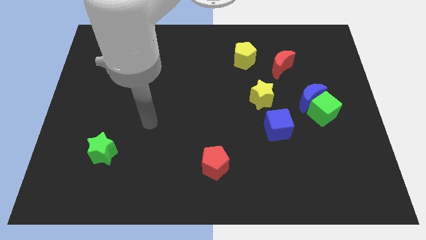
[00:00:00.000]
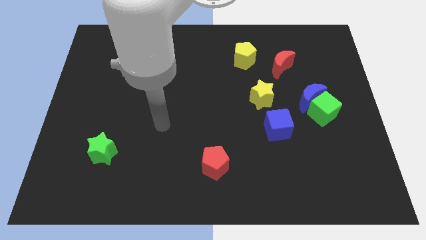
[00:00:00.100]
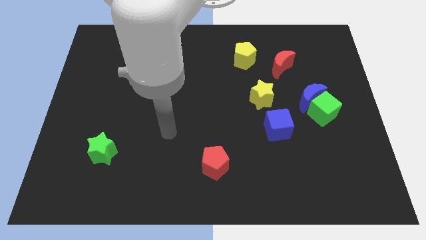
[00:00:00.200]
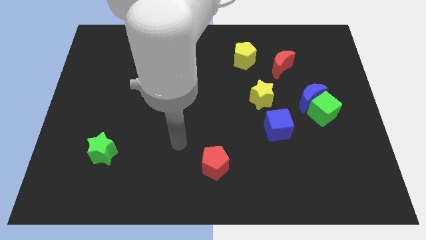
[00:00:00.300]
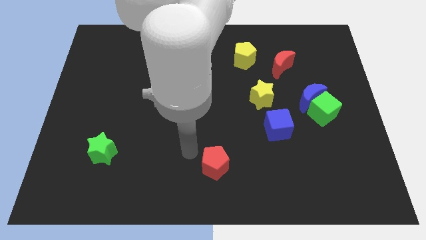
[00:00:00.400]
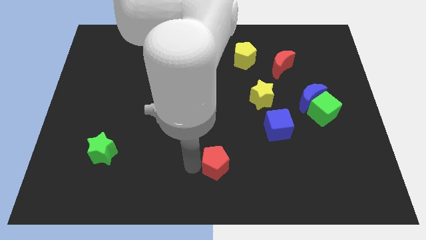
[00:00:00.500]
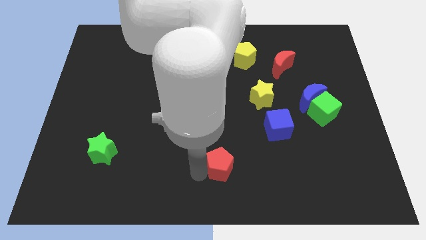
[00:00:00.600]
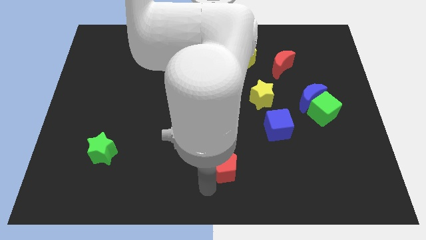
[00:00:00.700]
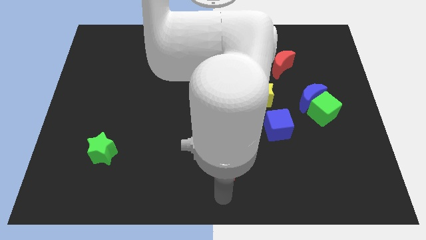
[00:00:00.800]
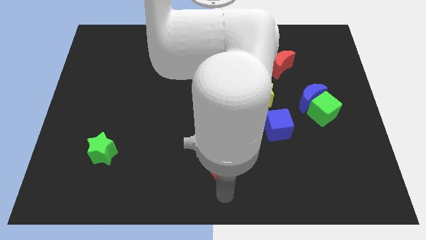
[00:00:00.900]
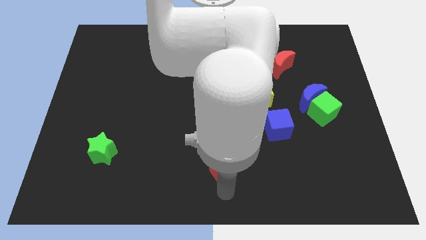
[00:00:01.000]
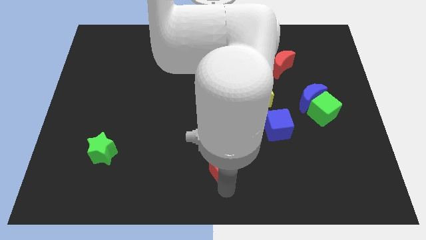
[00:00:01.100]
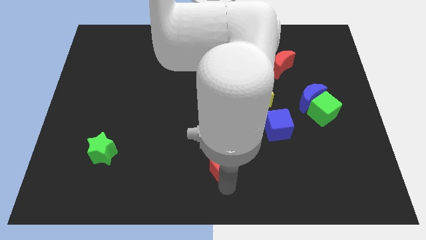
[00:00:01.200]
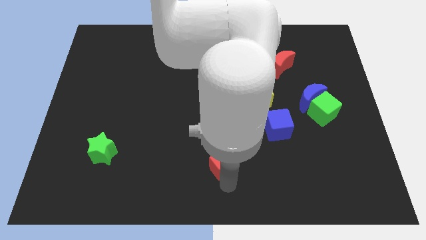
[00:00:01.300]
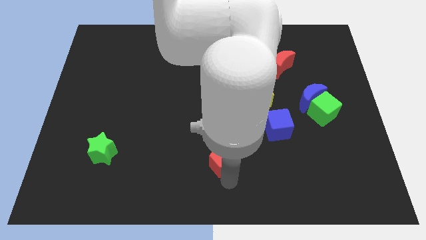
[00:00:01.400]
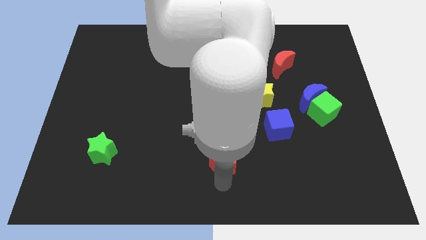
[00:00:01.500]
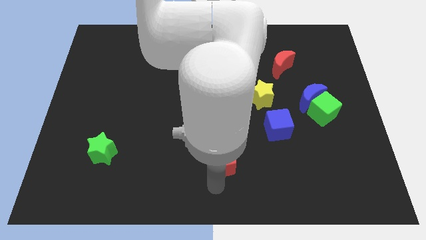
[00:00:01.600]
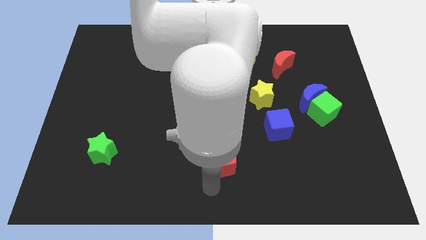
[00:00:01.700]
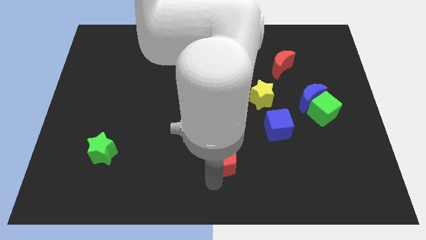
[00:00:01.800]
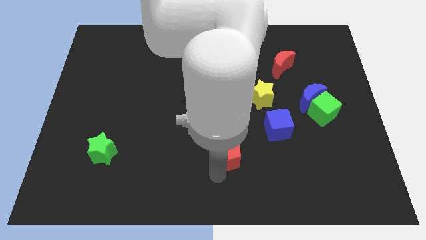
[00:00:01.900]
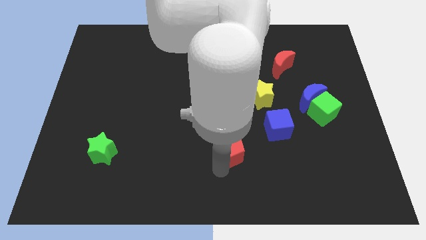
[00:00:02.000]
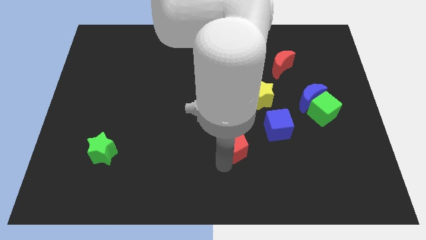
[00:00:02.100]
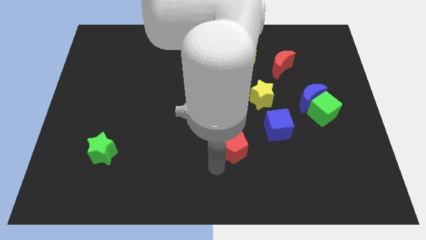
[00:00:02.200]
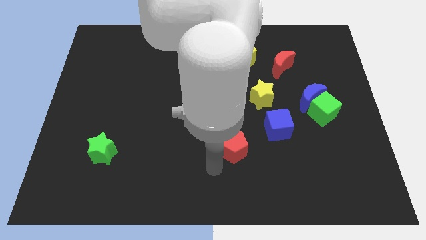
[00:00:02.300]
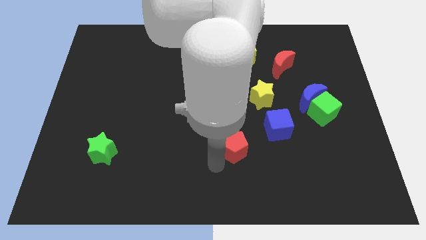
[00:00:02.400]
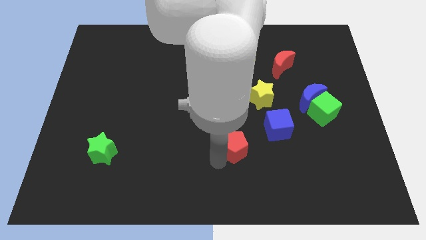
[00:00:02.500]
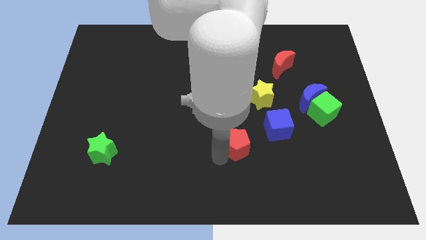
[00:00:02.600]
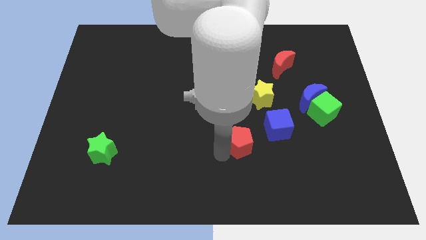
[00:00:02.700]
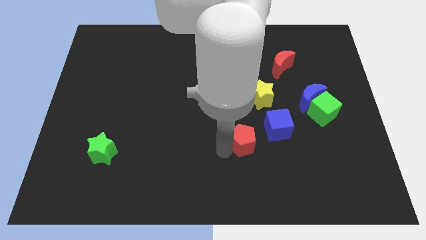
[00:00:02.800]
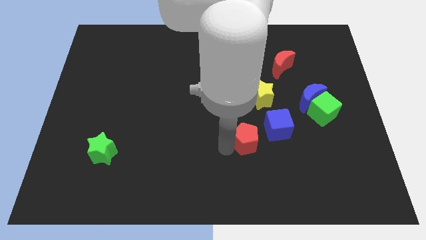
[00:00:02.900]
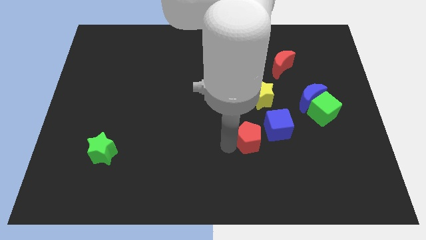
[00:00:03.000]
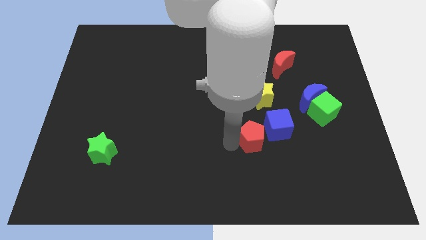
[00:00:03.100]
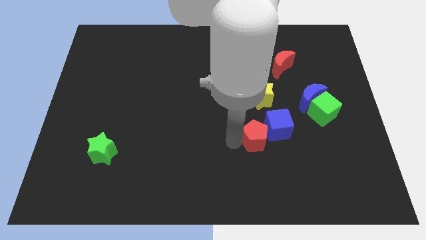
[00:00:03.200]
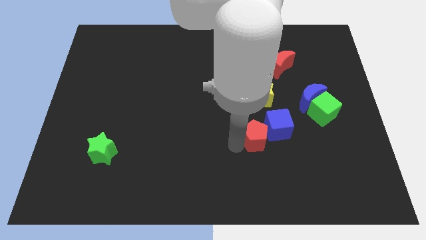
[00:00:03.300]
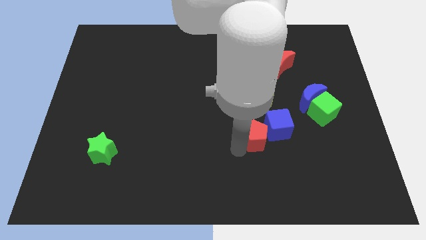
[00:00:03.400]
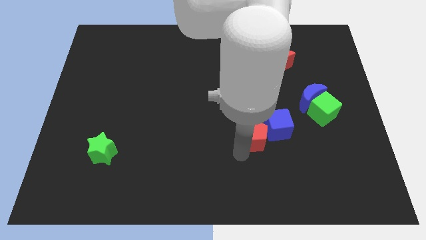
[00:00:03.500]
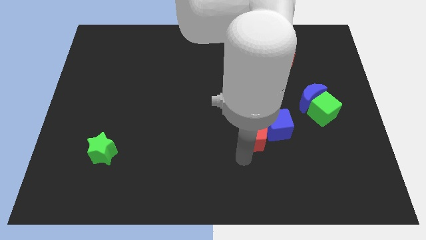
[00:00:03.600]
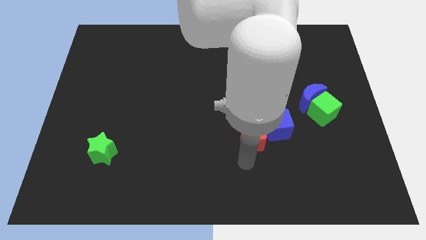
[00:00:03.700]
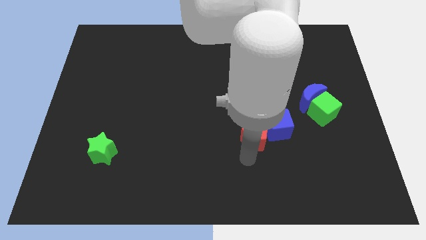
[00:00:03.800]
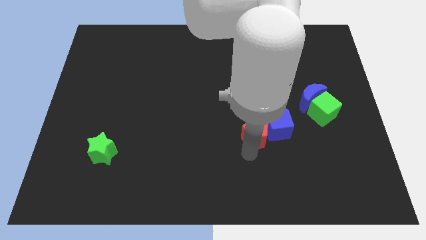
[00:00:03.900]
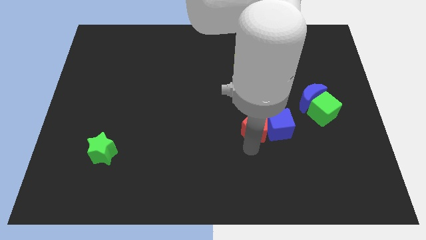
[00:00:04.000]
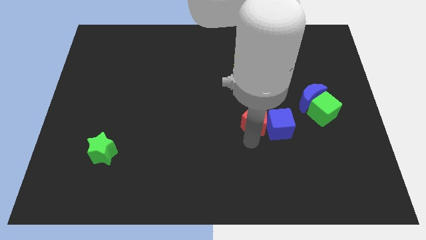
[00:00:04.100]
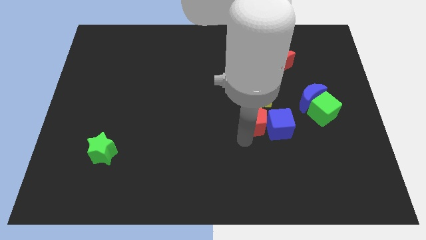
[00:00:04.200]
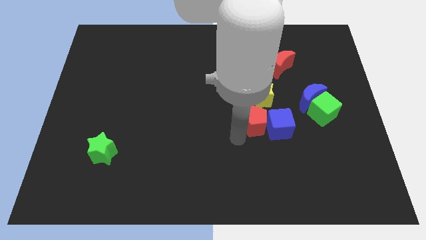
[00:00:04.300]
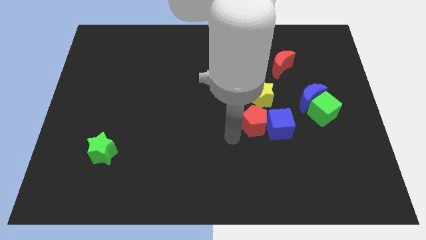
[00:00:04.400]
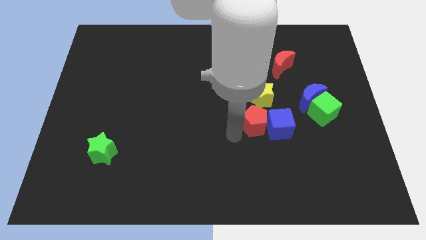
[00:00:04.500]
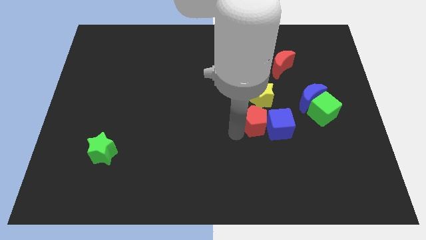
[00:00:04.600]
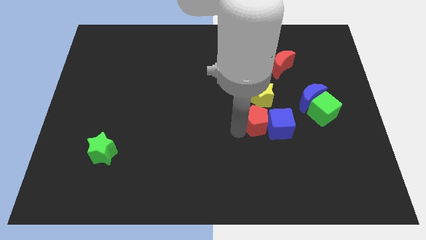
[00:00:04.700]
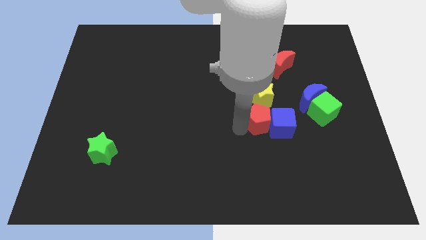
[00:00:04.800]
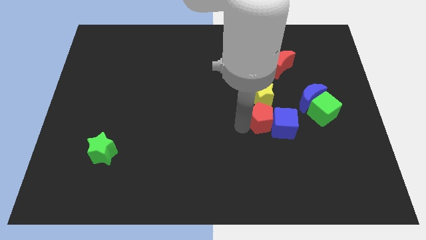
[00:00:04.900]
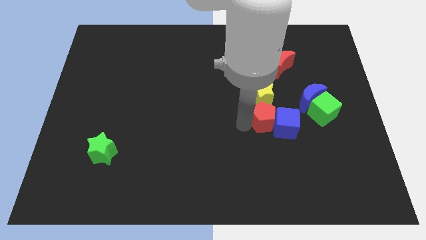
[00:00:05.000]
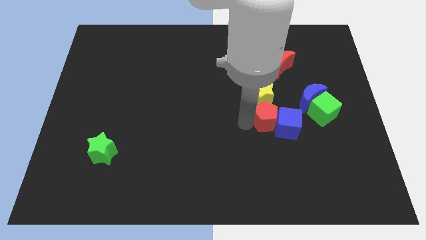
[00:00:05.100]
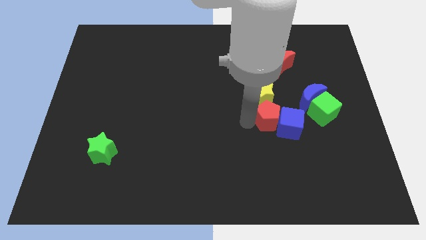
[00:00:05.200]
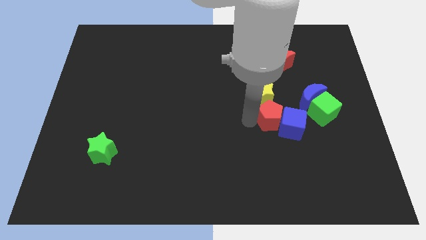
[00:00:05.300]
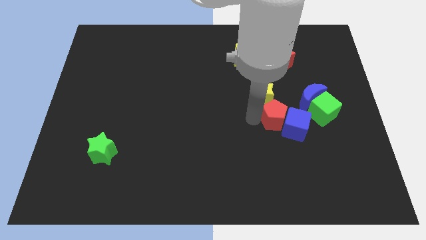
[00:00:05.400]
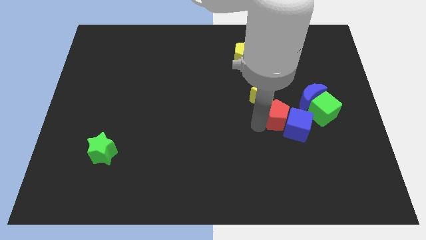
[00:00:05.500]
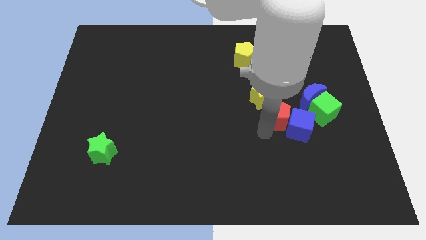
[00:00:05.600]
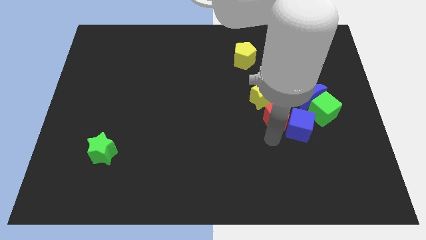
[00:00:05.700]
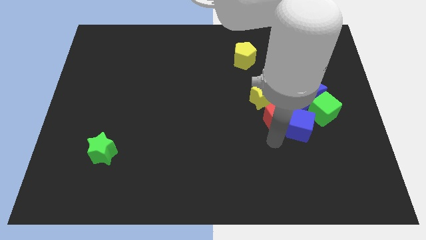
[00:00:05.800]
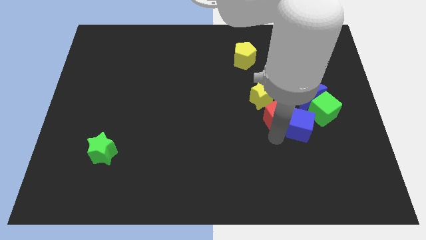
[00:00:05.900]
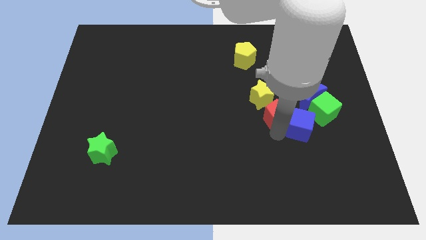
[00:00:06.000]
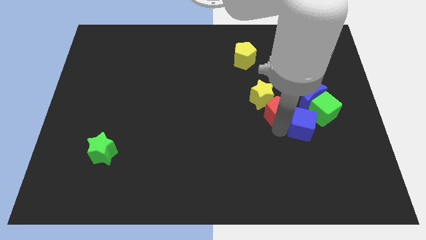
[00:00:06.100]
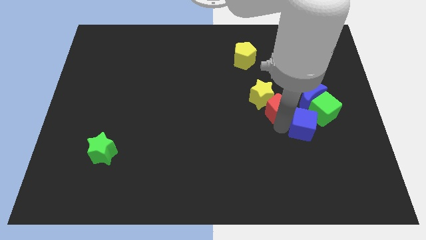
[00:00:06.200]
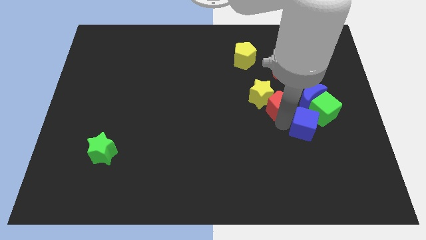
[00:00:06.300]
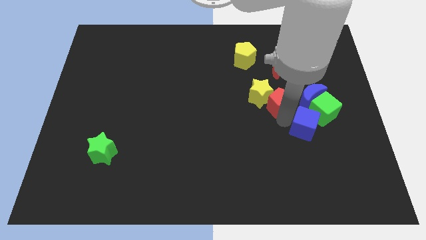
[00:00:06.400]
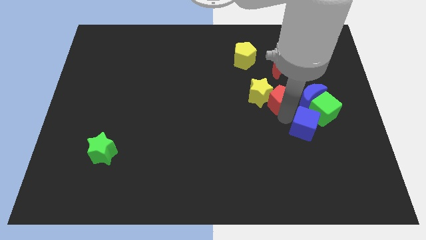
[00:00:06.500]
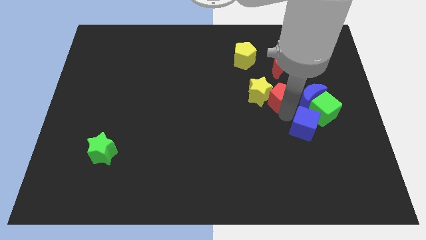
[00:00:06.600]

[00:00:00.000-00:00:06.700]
slide the red pentagon to the top right side of the yellow star
